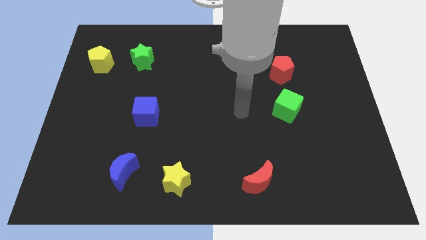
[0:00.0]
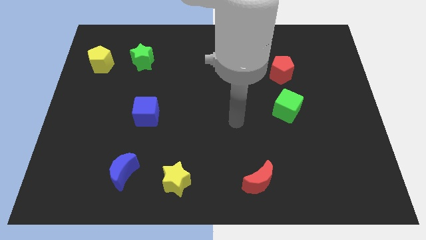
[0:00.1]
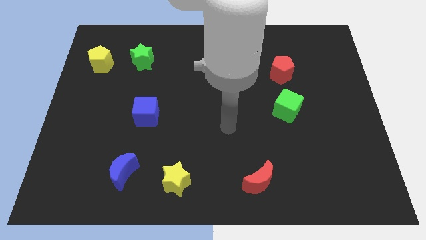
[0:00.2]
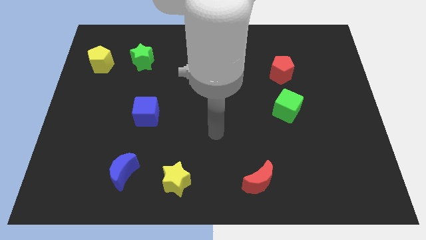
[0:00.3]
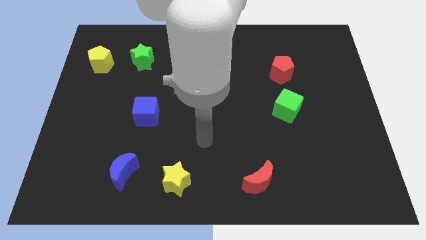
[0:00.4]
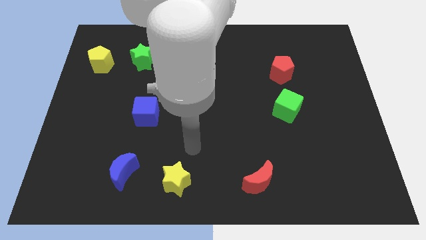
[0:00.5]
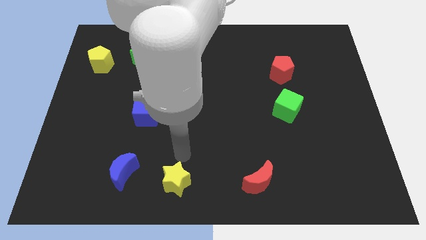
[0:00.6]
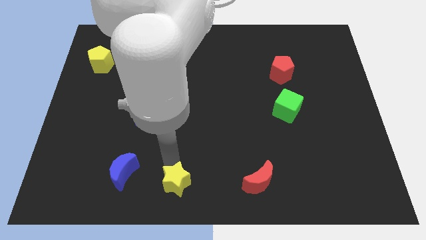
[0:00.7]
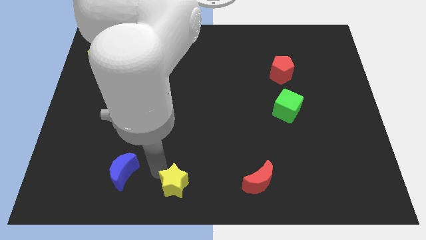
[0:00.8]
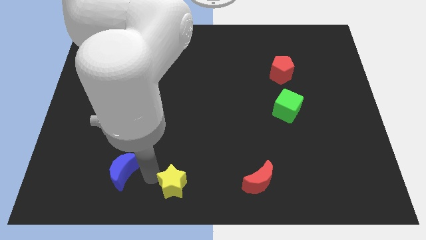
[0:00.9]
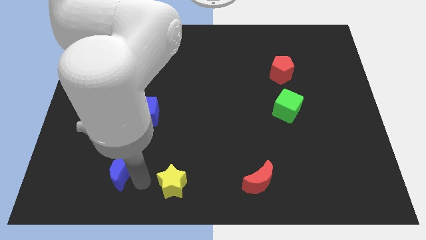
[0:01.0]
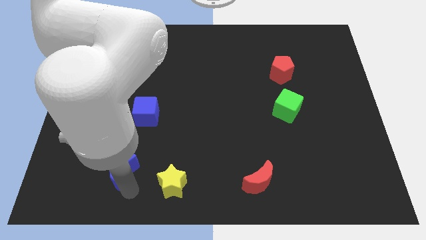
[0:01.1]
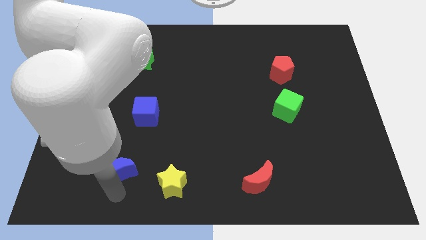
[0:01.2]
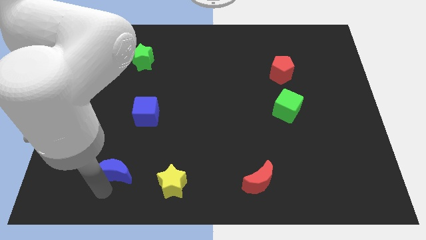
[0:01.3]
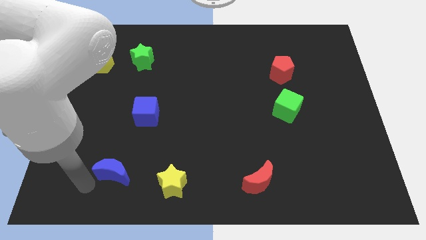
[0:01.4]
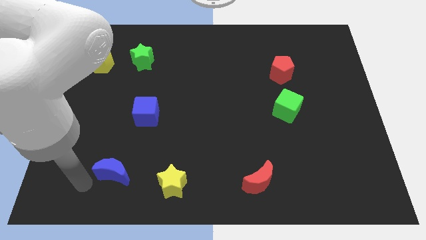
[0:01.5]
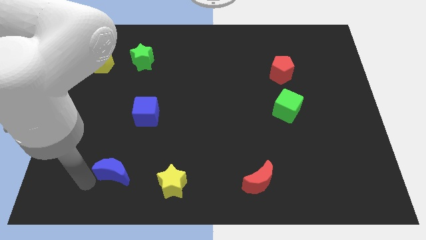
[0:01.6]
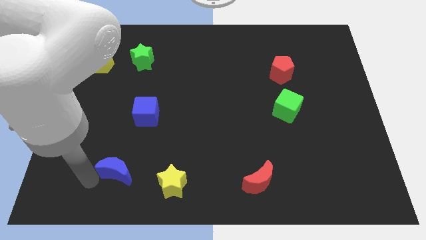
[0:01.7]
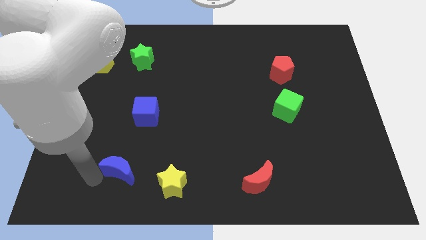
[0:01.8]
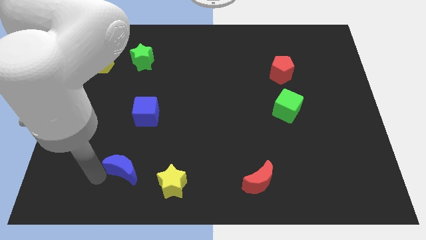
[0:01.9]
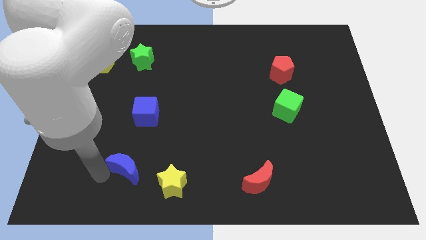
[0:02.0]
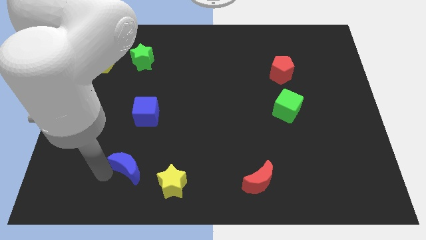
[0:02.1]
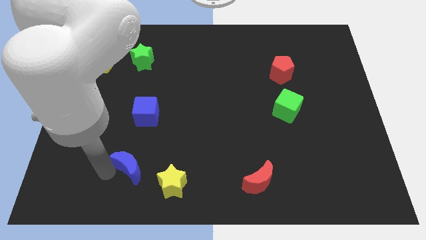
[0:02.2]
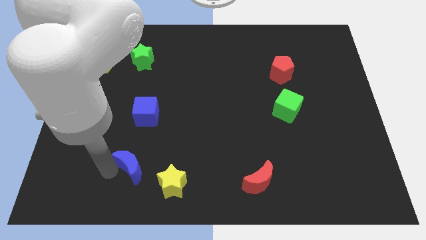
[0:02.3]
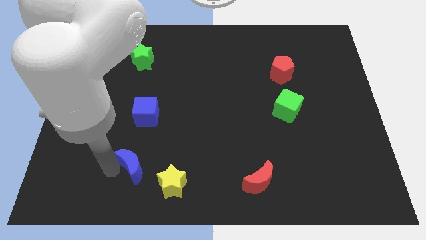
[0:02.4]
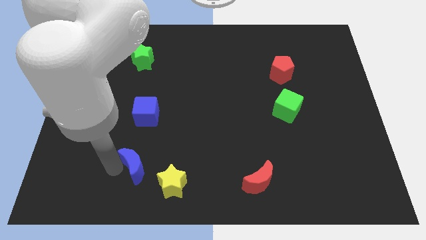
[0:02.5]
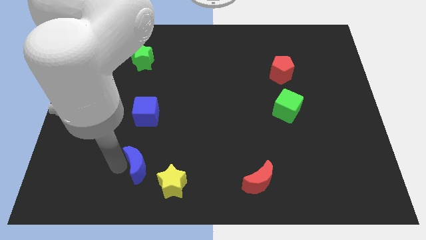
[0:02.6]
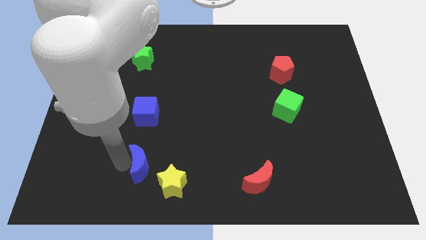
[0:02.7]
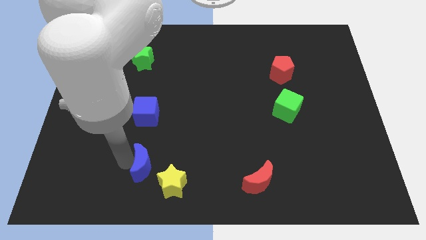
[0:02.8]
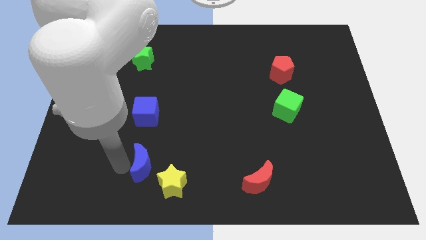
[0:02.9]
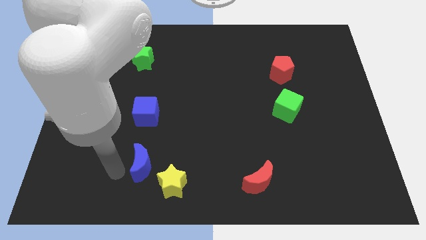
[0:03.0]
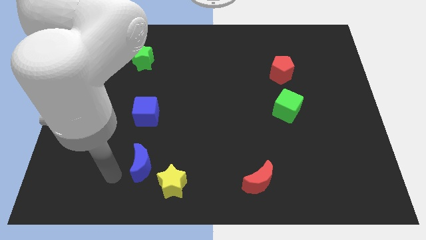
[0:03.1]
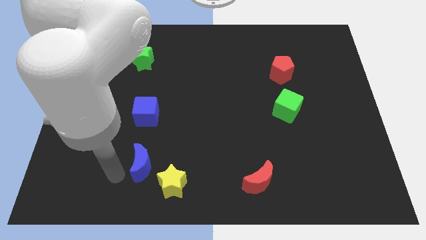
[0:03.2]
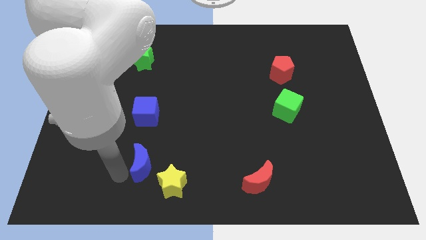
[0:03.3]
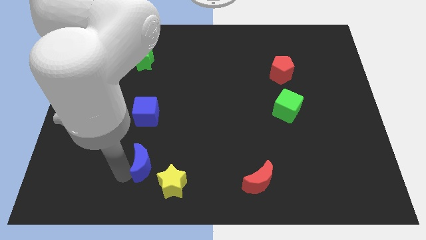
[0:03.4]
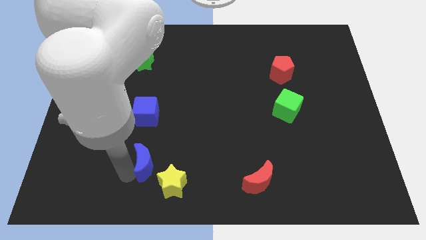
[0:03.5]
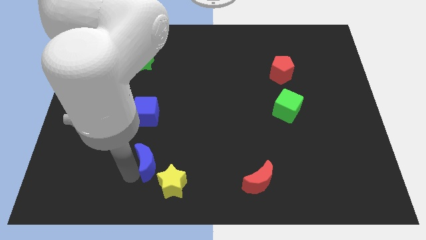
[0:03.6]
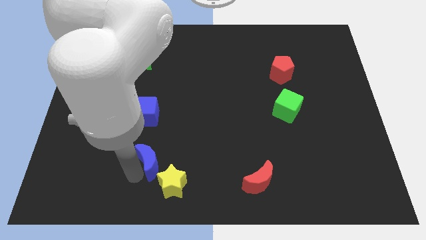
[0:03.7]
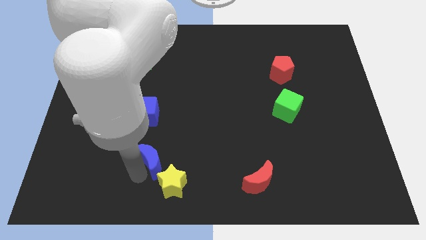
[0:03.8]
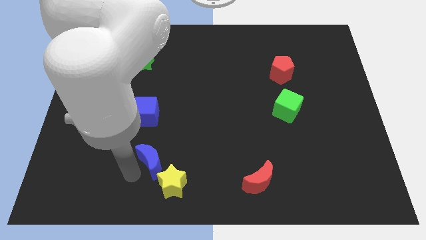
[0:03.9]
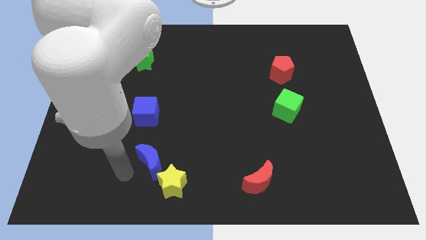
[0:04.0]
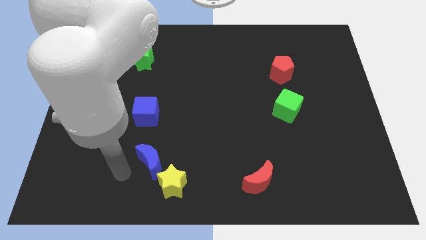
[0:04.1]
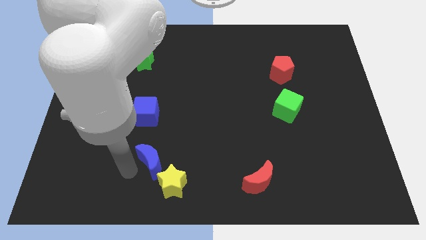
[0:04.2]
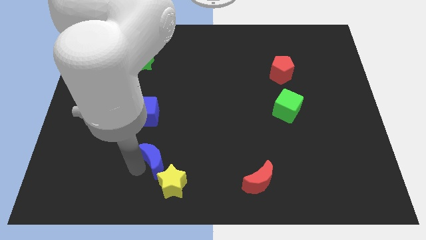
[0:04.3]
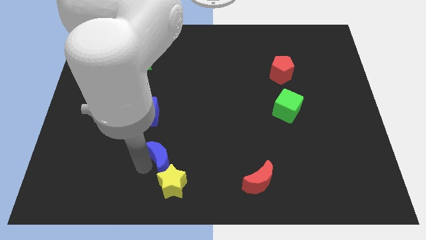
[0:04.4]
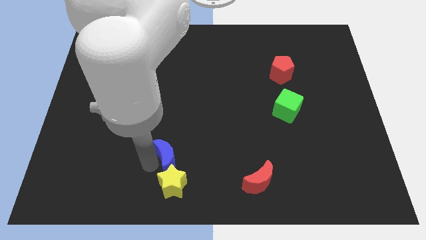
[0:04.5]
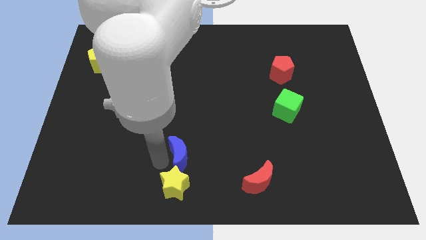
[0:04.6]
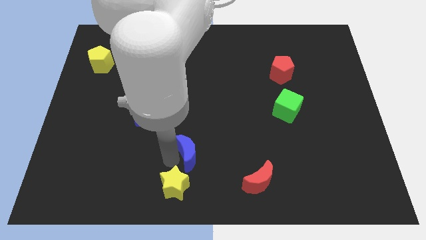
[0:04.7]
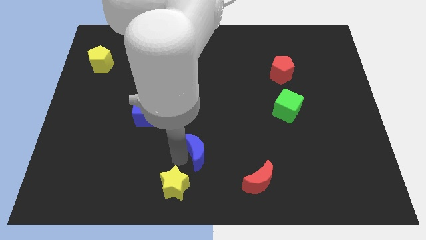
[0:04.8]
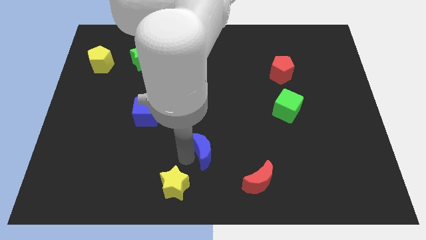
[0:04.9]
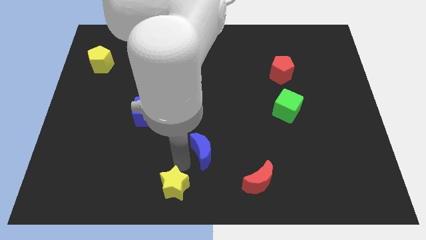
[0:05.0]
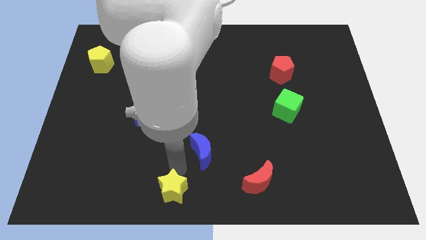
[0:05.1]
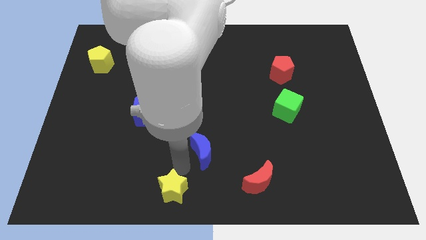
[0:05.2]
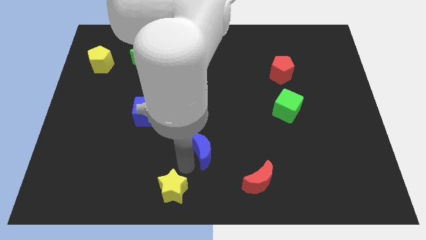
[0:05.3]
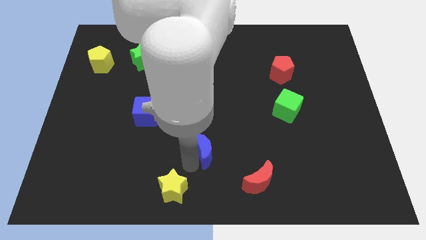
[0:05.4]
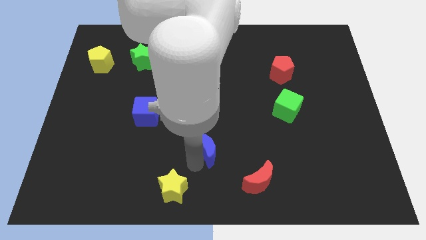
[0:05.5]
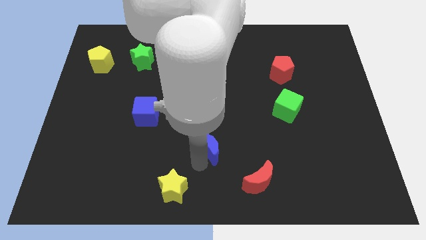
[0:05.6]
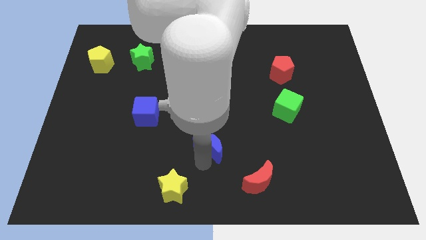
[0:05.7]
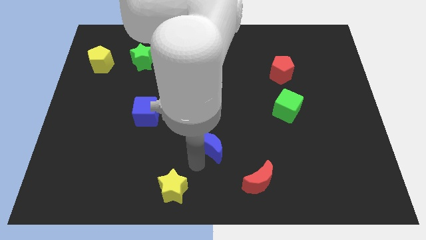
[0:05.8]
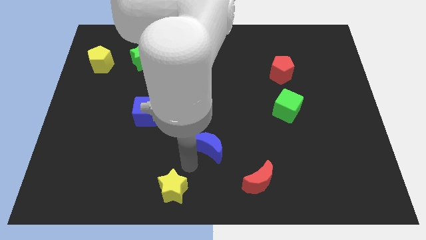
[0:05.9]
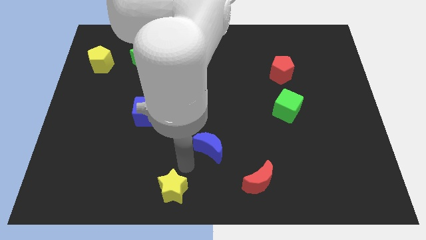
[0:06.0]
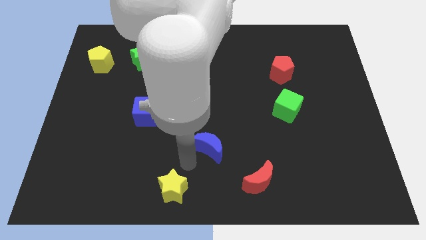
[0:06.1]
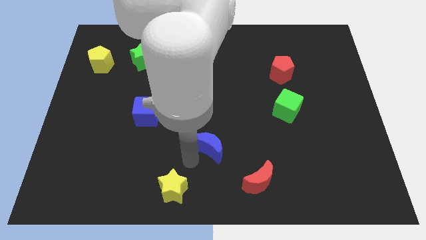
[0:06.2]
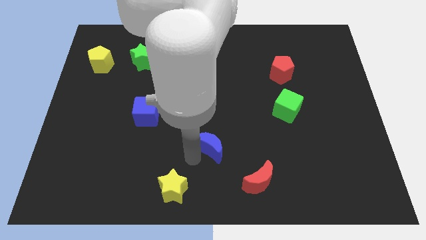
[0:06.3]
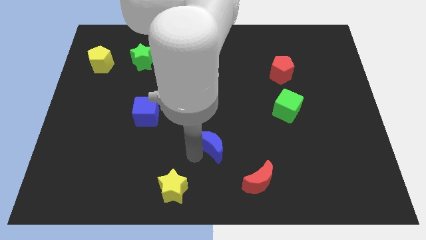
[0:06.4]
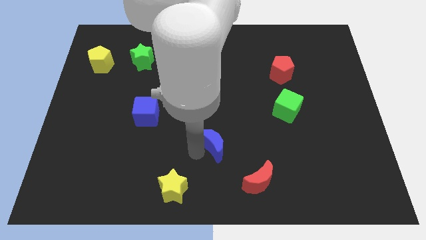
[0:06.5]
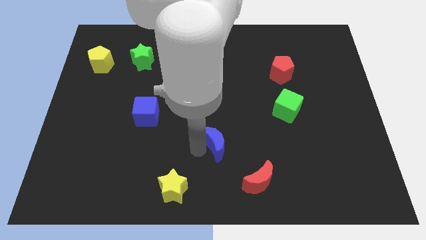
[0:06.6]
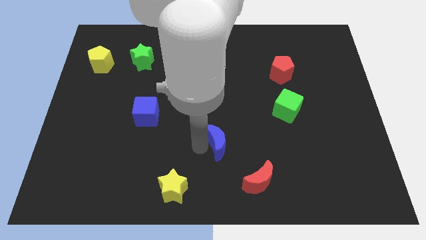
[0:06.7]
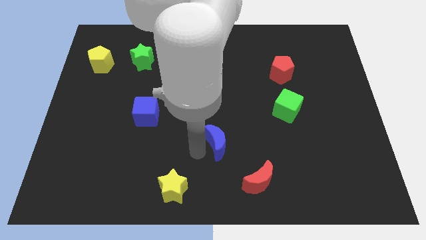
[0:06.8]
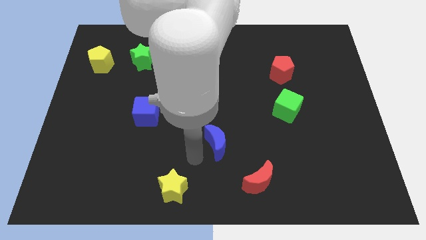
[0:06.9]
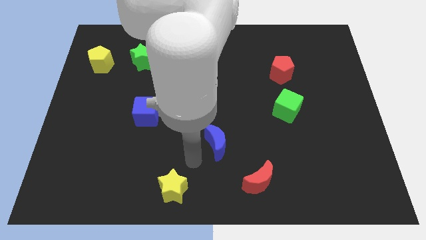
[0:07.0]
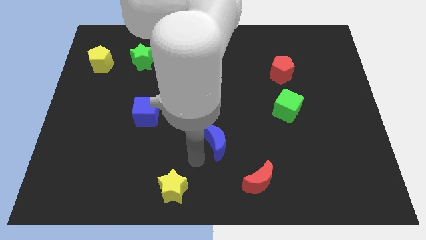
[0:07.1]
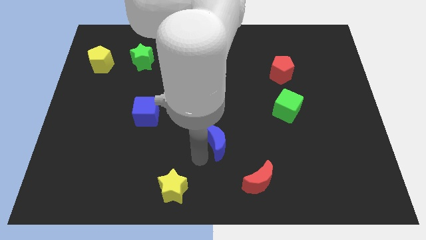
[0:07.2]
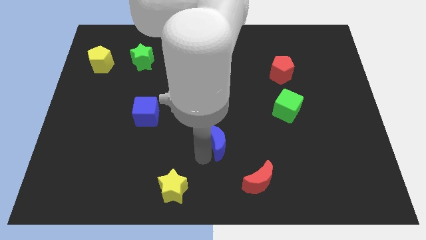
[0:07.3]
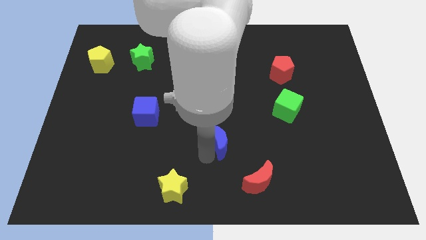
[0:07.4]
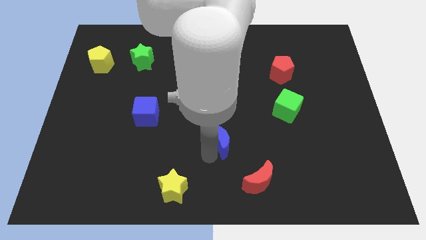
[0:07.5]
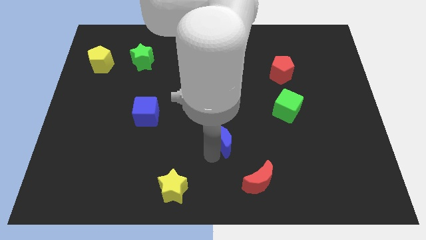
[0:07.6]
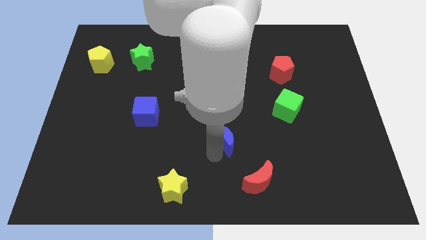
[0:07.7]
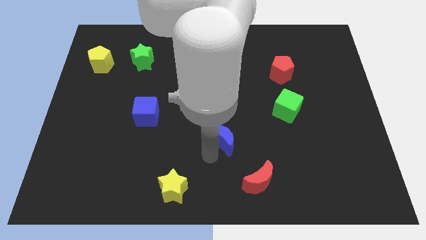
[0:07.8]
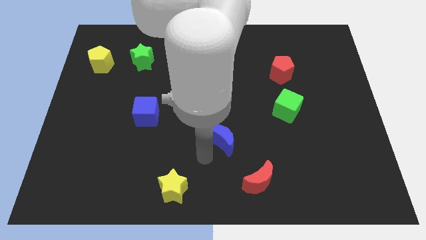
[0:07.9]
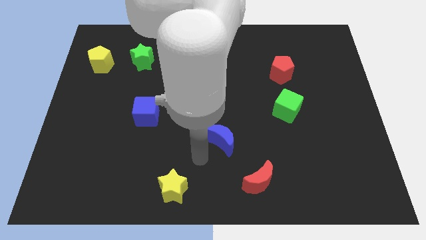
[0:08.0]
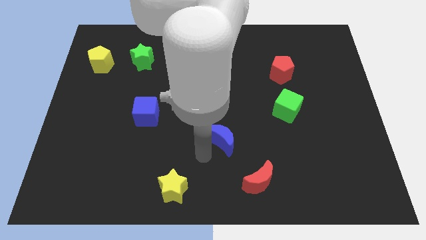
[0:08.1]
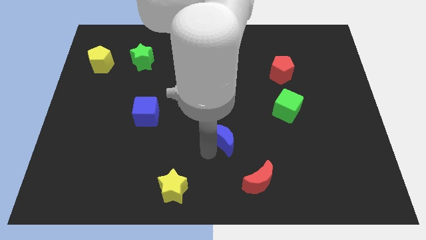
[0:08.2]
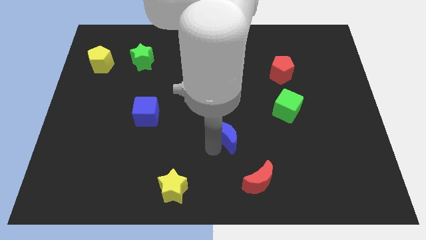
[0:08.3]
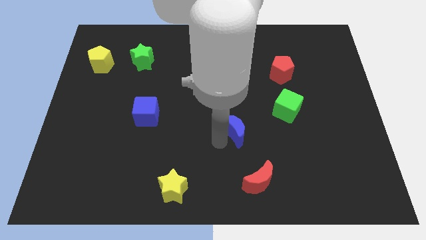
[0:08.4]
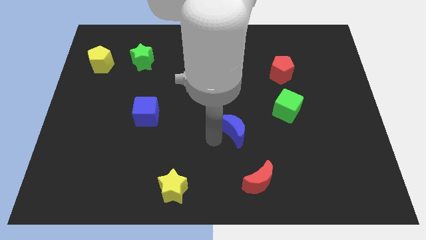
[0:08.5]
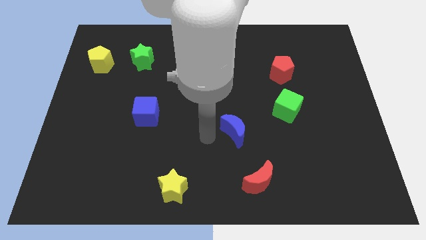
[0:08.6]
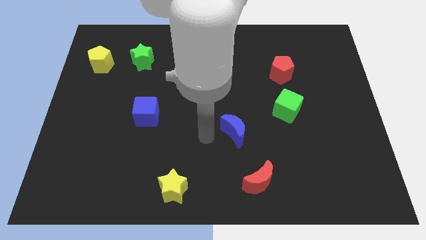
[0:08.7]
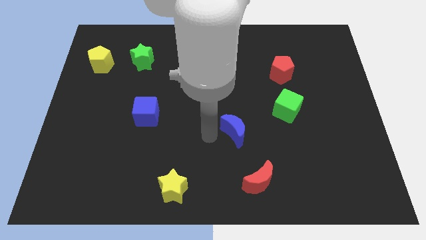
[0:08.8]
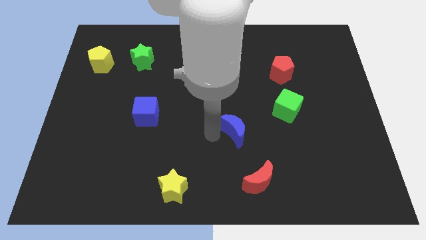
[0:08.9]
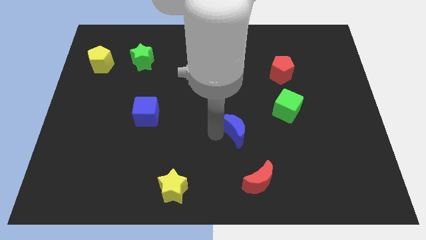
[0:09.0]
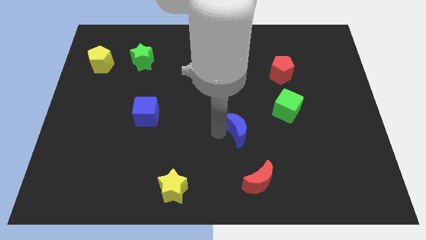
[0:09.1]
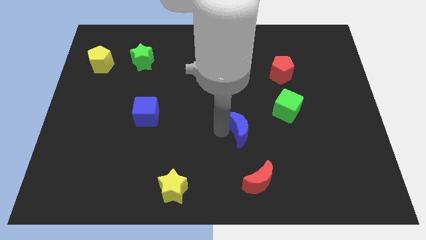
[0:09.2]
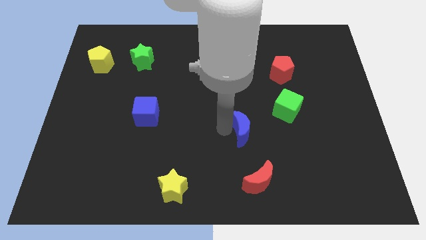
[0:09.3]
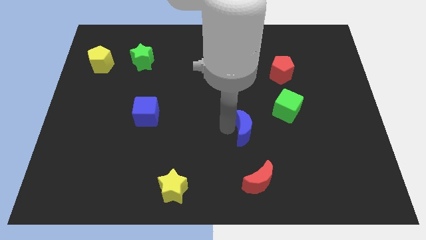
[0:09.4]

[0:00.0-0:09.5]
slide the blue moon diagonally down and to the left of the green cube
